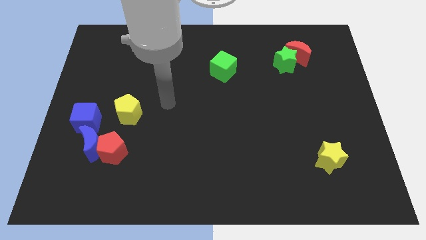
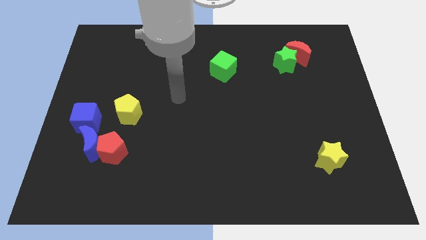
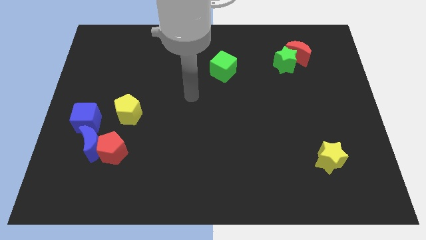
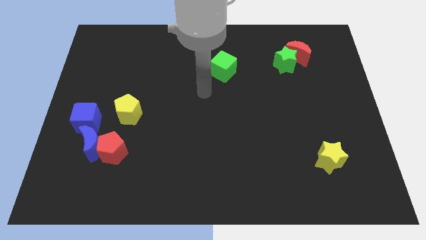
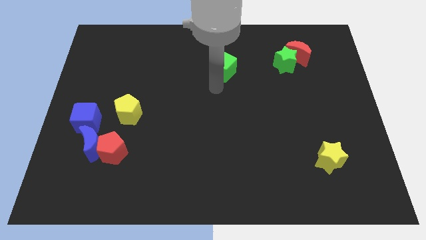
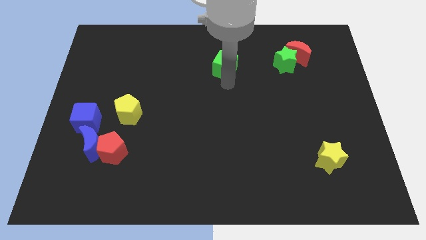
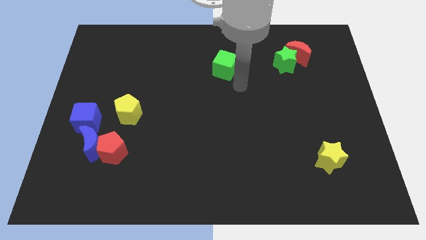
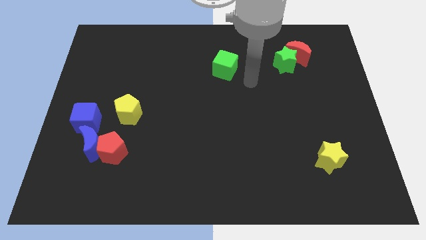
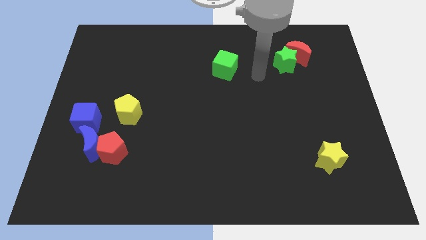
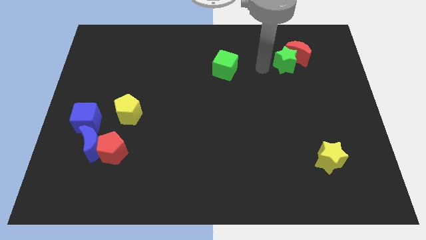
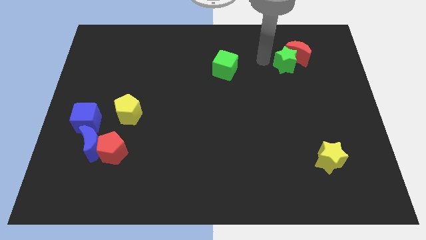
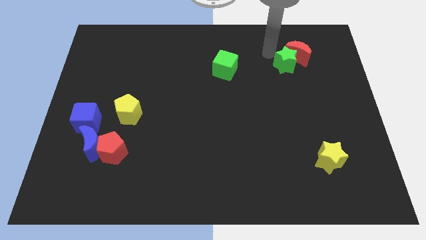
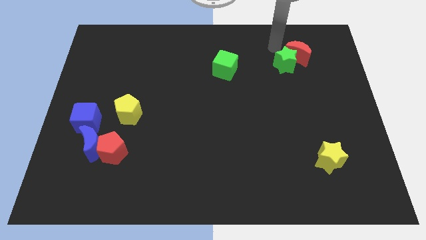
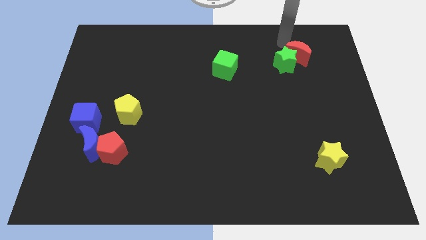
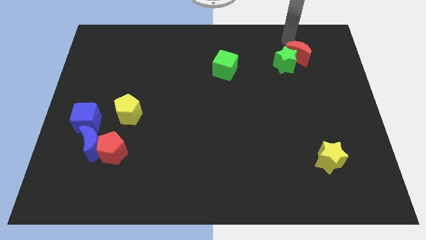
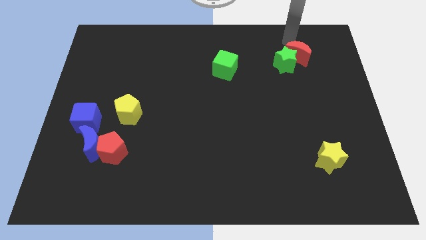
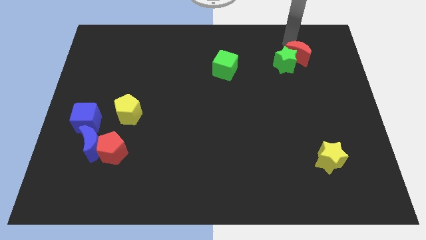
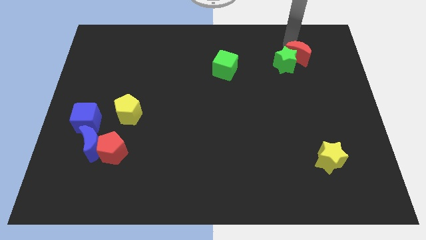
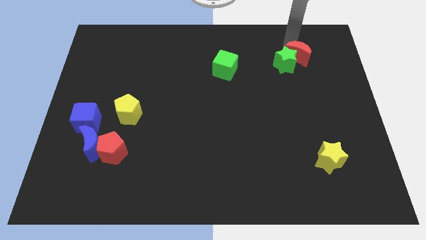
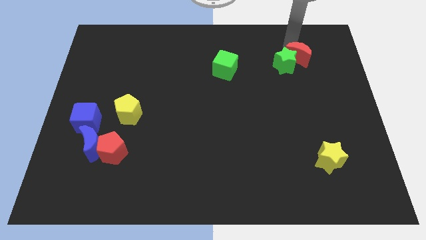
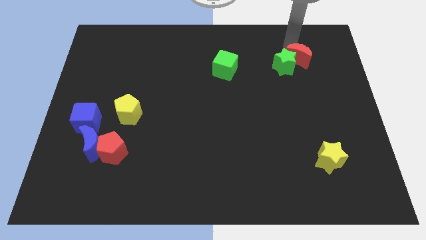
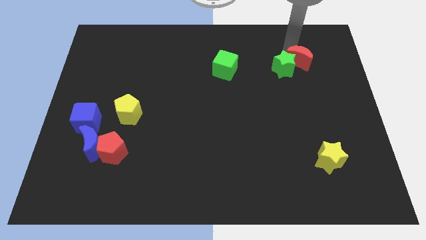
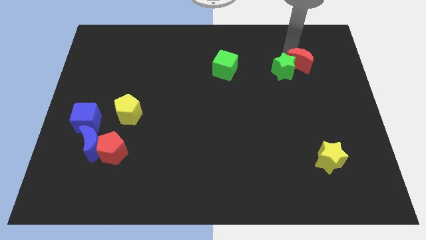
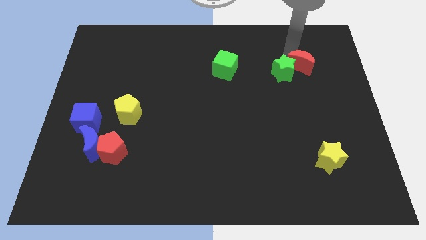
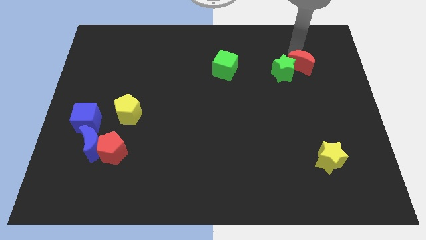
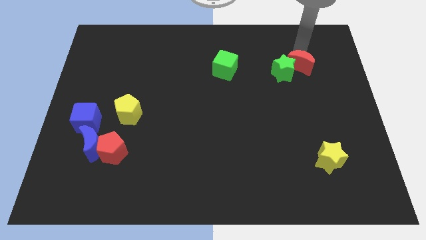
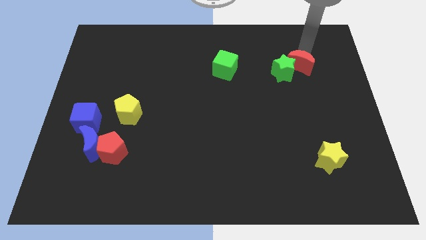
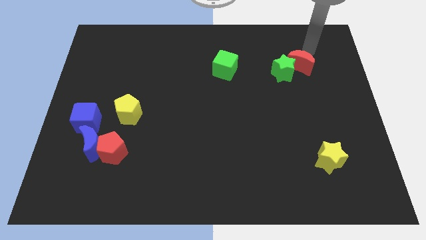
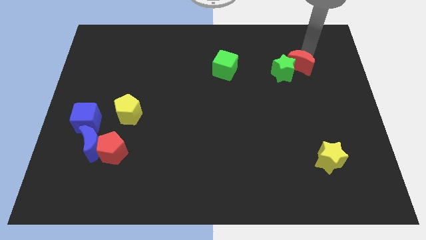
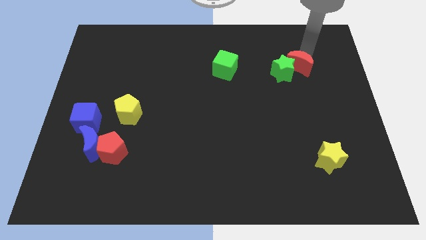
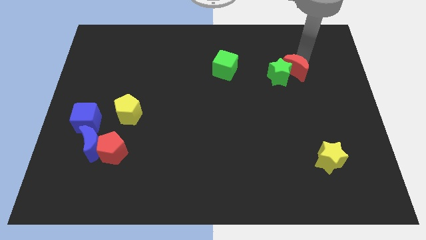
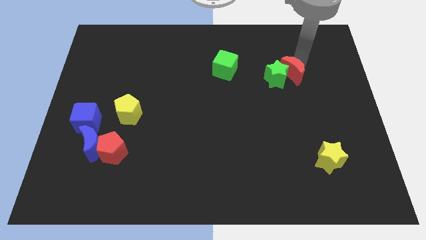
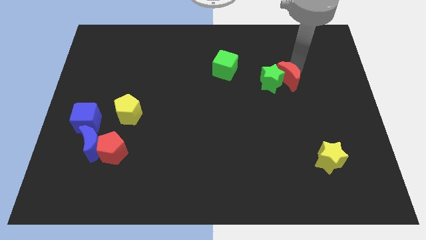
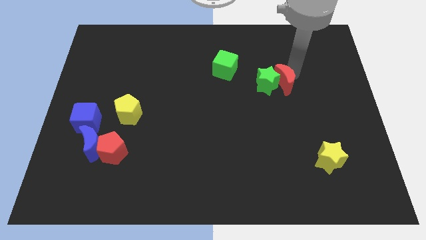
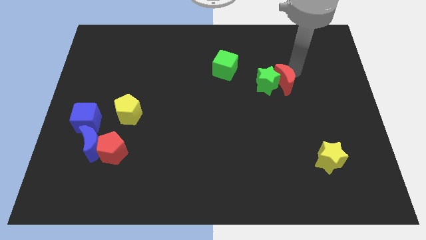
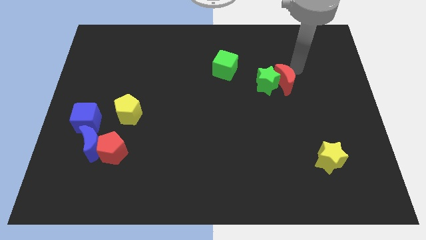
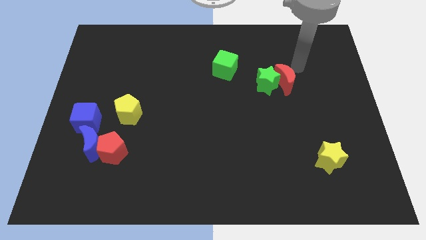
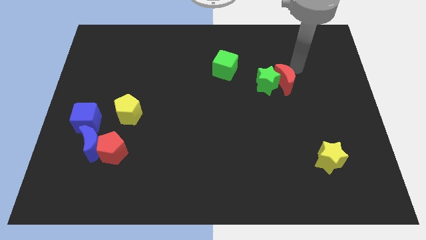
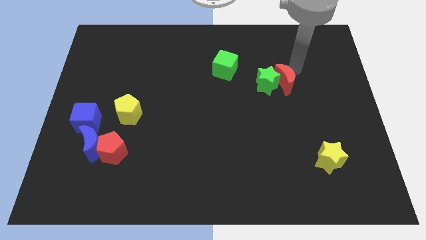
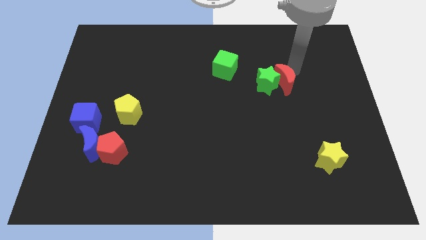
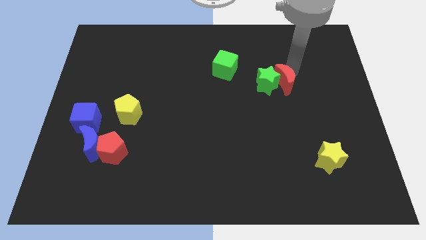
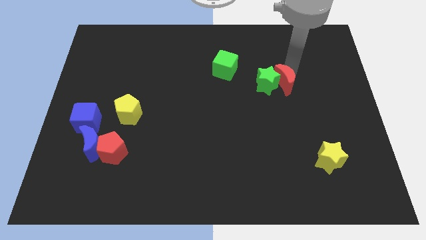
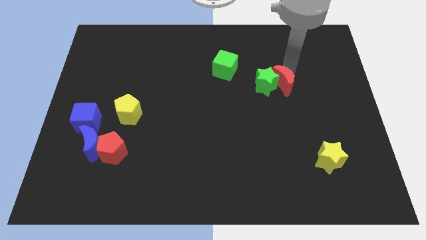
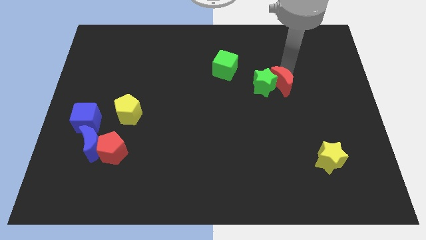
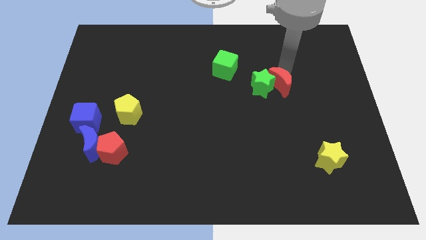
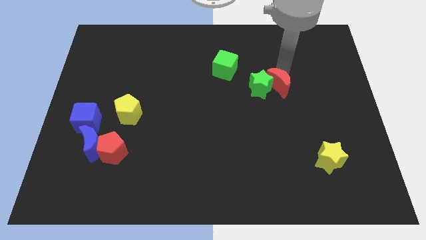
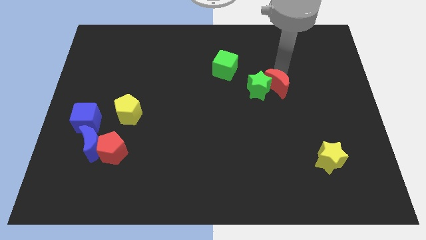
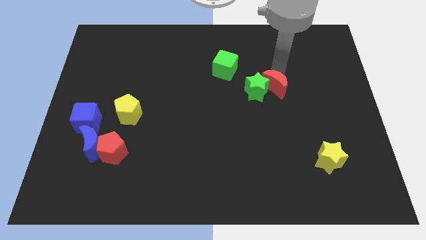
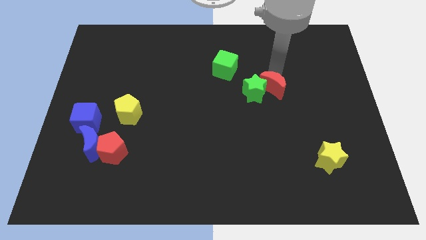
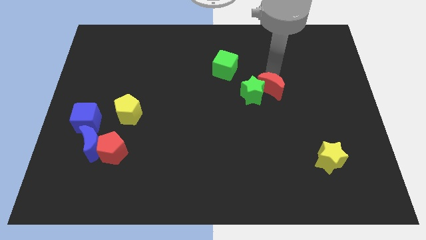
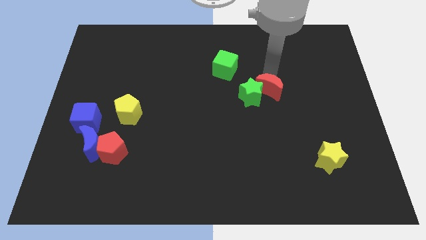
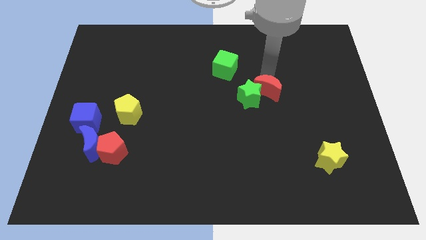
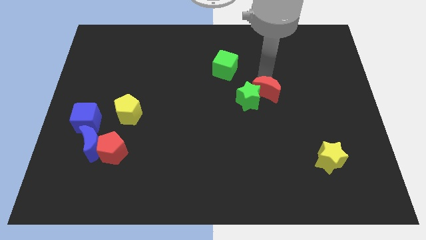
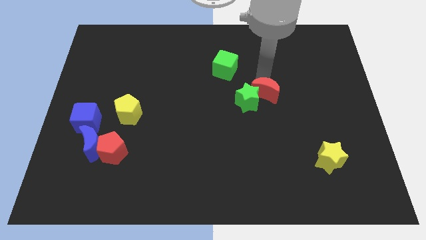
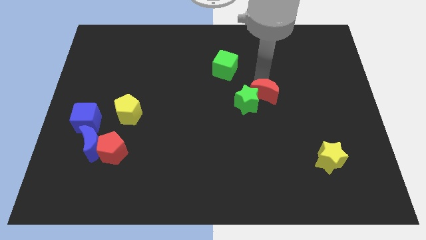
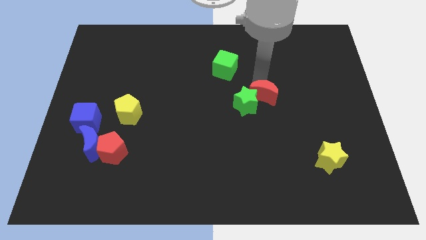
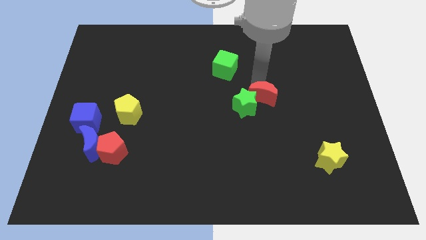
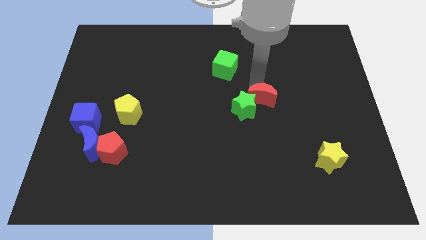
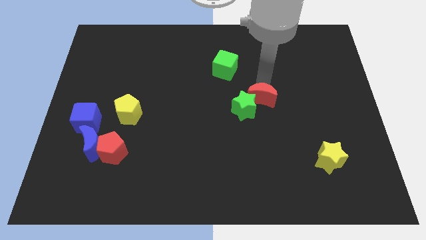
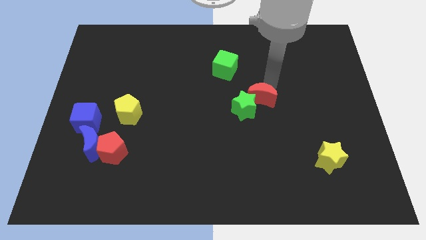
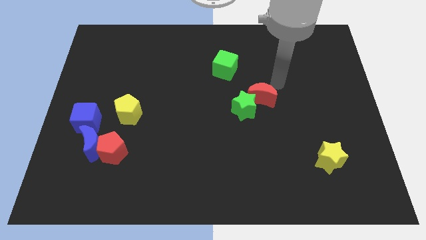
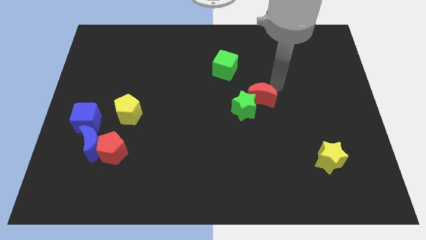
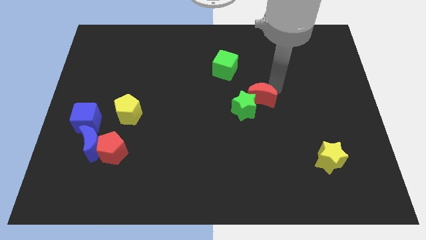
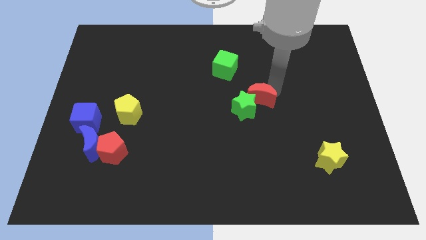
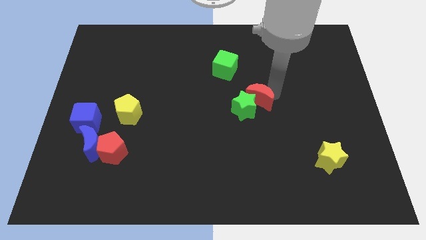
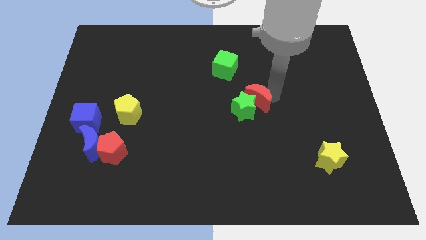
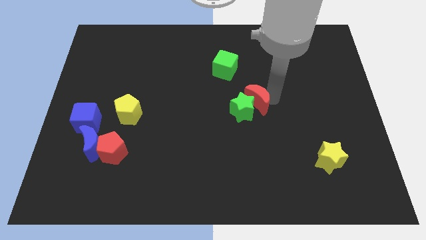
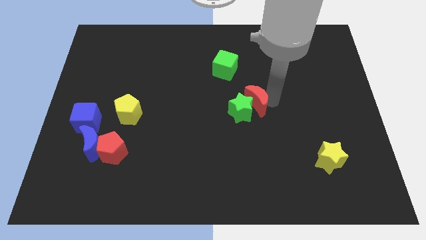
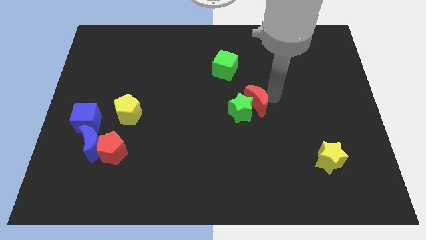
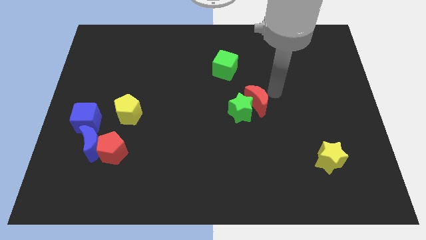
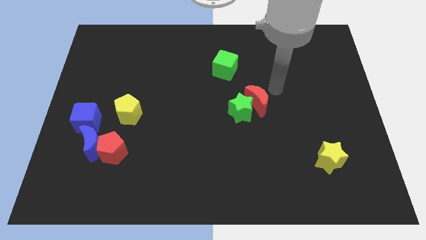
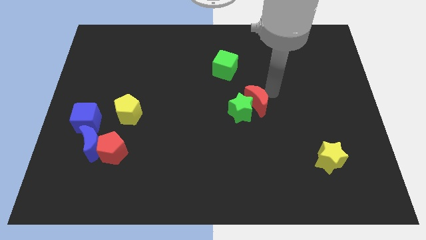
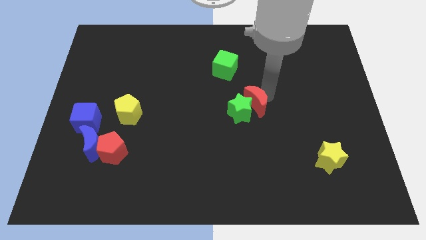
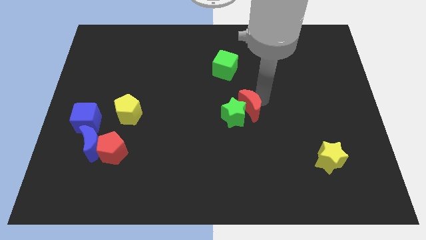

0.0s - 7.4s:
move the red moon diagonally downwards and to the left

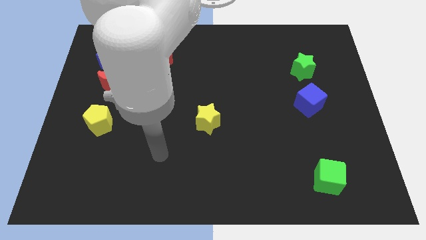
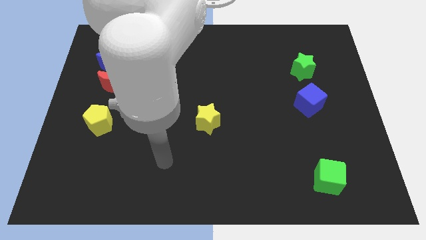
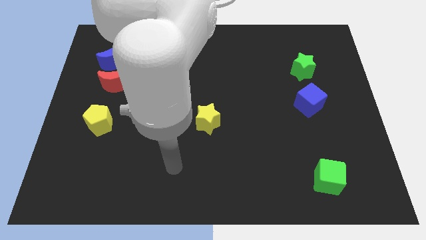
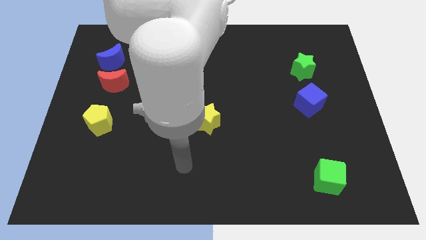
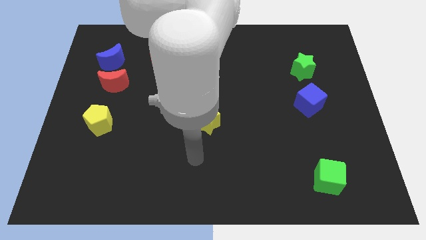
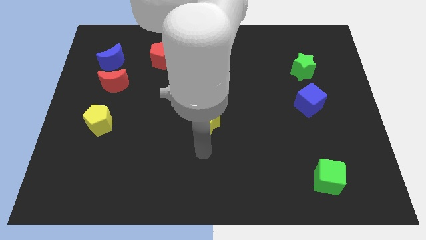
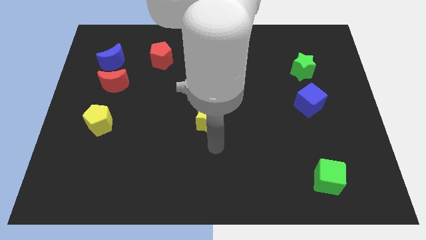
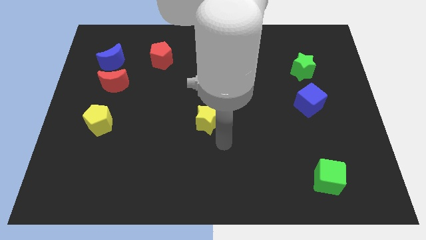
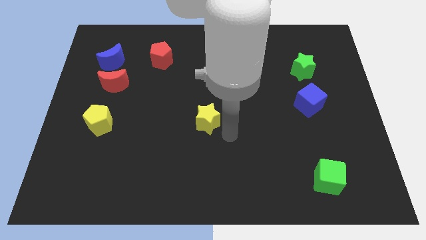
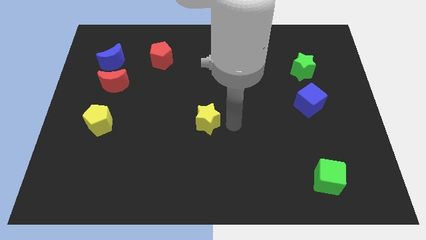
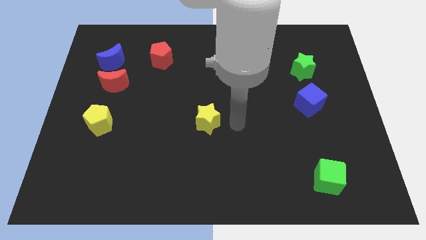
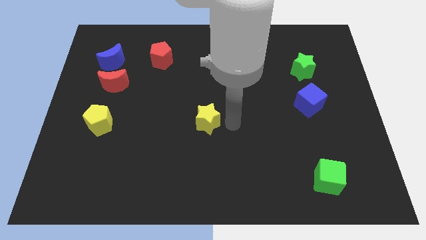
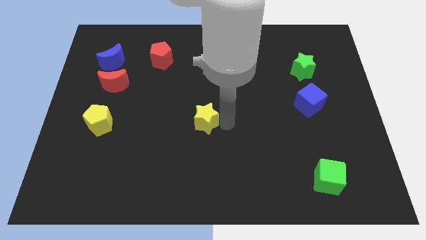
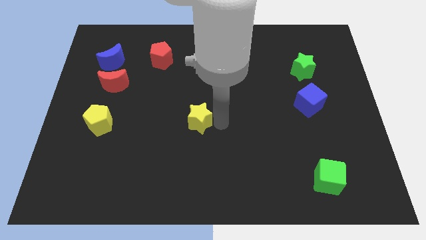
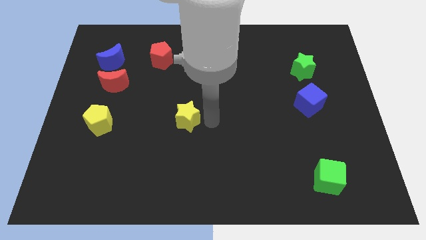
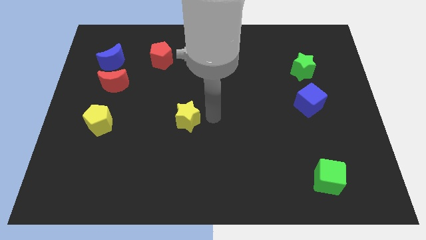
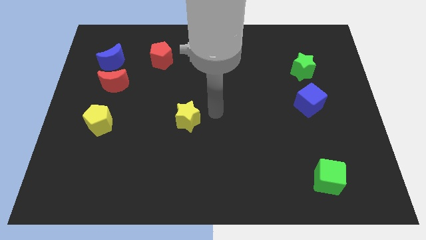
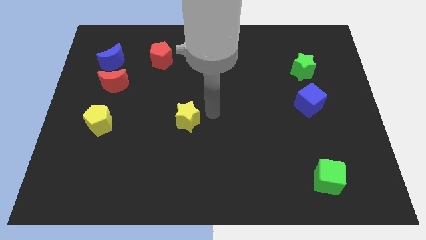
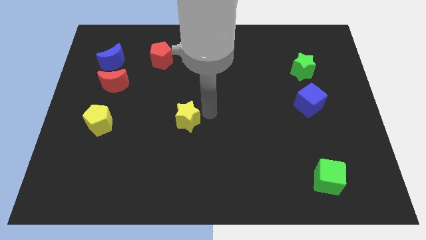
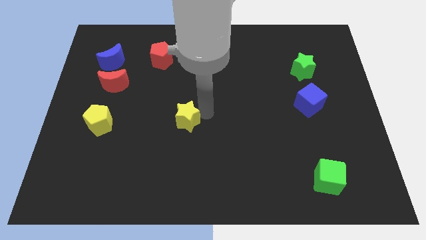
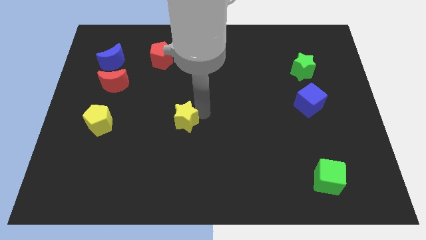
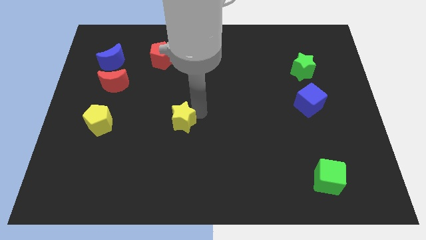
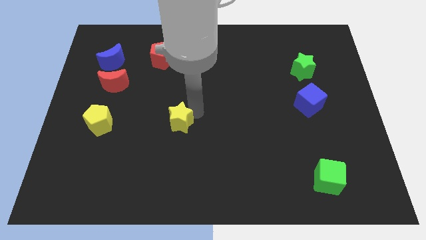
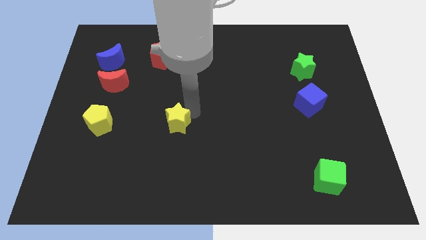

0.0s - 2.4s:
slightly move the yellow star left
